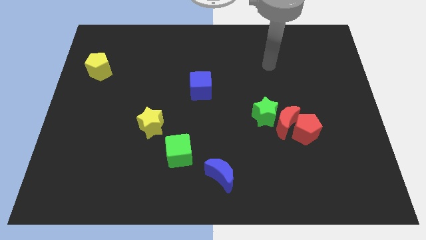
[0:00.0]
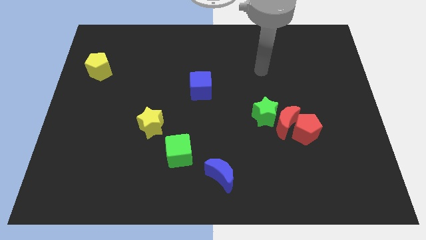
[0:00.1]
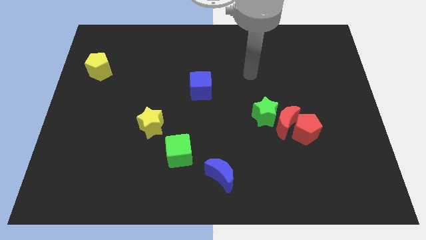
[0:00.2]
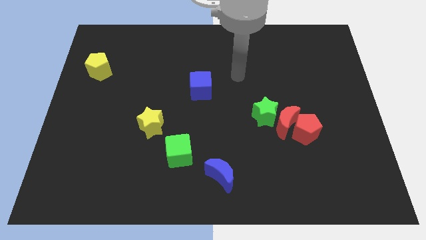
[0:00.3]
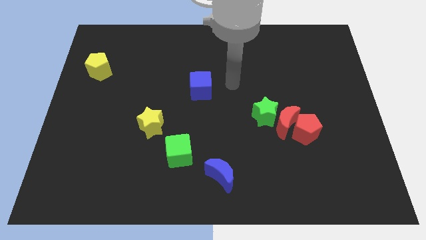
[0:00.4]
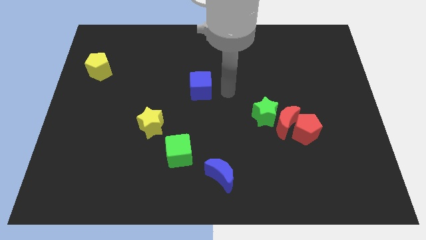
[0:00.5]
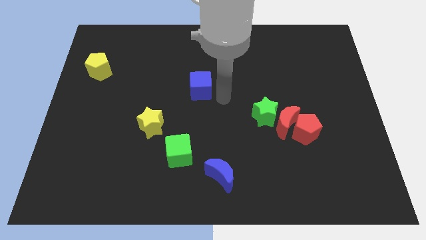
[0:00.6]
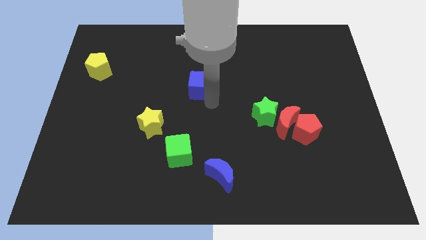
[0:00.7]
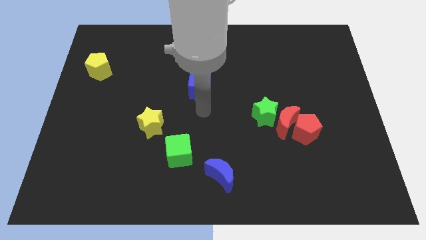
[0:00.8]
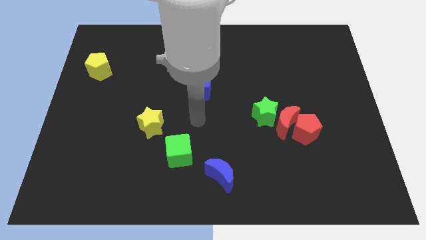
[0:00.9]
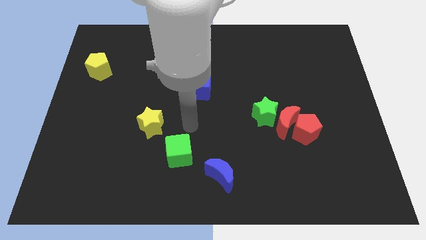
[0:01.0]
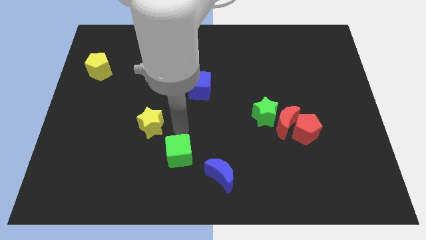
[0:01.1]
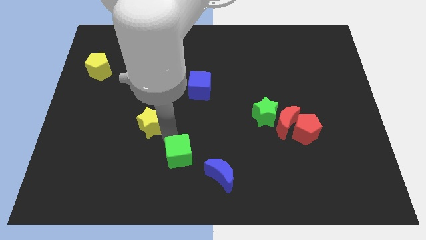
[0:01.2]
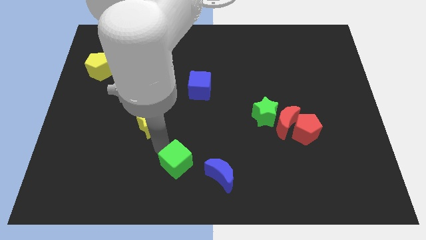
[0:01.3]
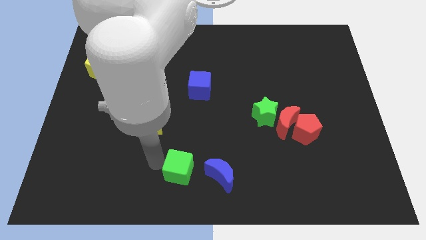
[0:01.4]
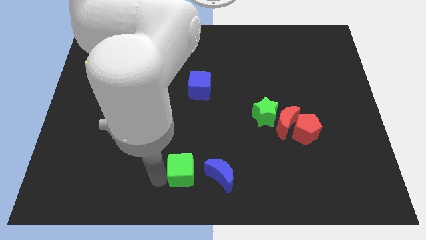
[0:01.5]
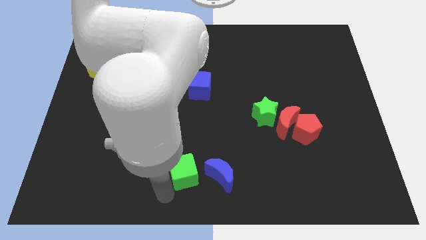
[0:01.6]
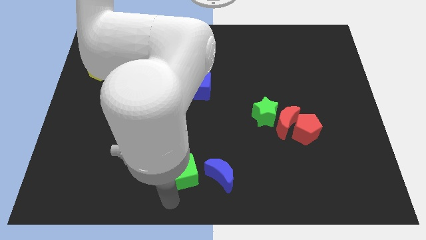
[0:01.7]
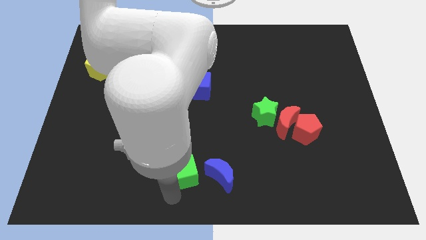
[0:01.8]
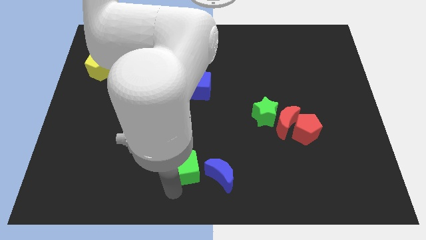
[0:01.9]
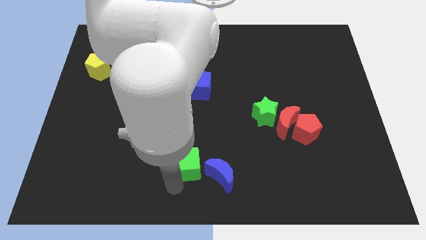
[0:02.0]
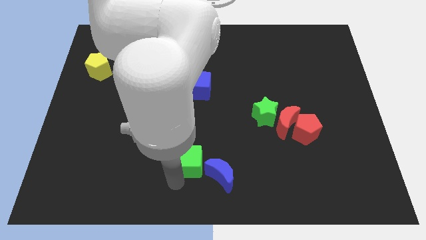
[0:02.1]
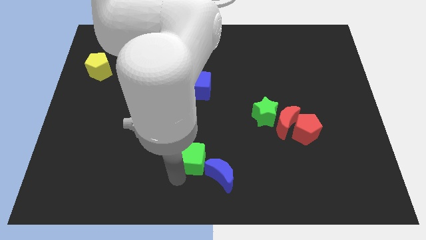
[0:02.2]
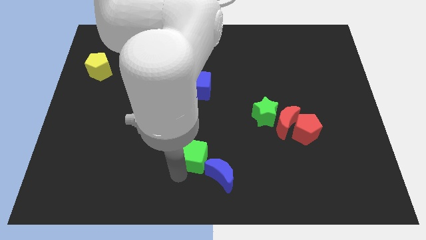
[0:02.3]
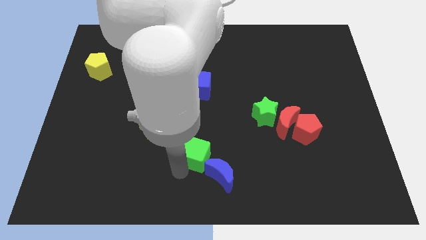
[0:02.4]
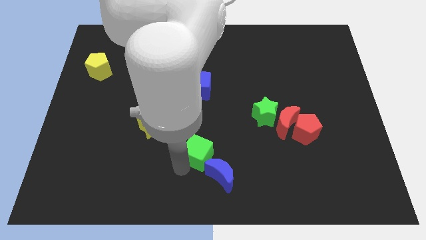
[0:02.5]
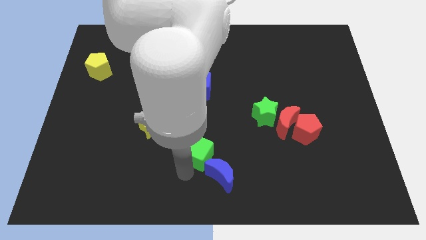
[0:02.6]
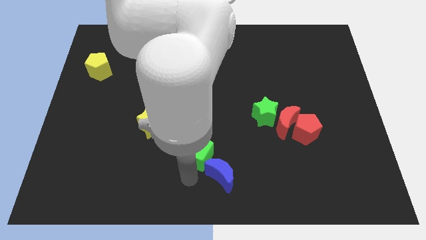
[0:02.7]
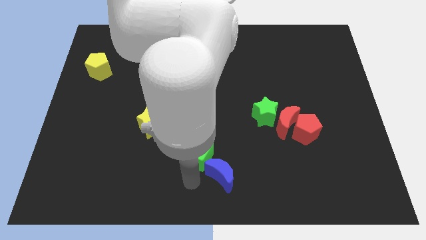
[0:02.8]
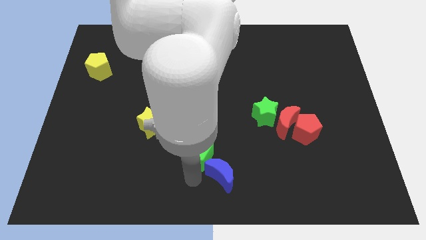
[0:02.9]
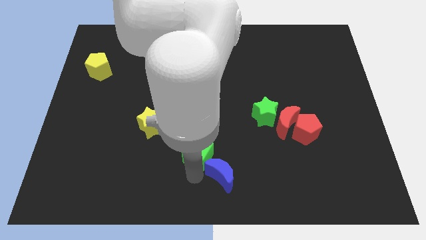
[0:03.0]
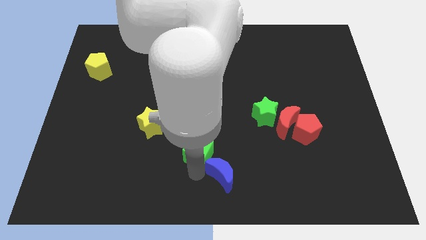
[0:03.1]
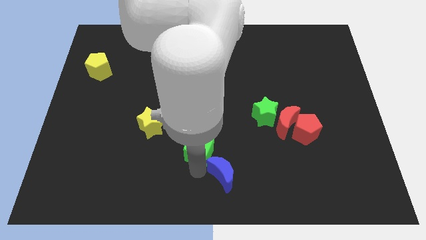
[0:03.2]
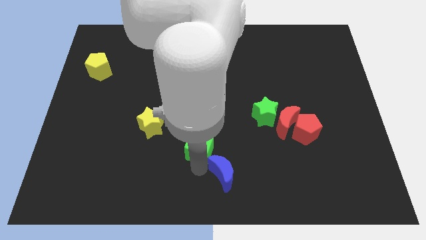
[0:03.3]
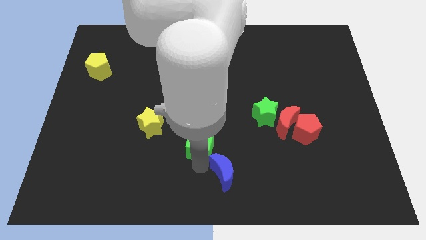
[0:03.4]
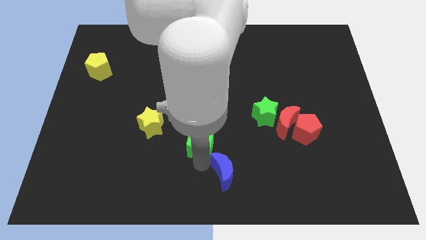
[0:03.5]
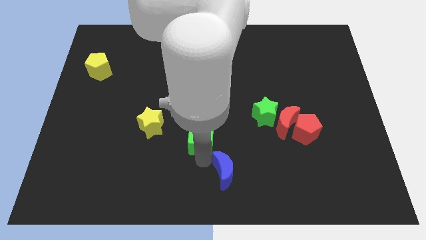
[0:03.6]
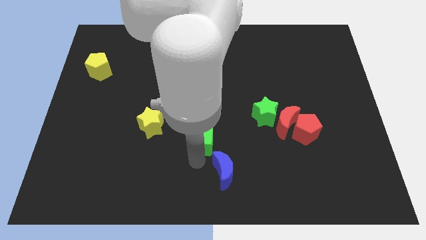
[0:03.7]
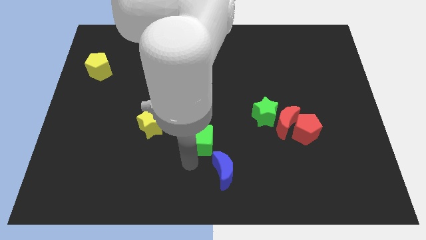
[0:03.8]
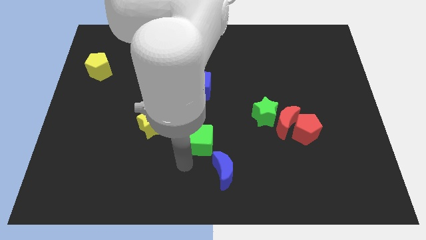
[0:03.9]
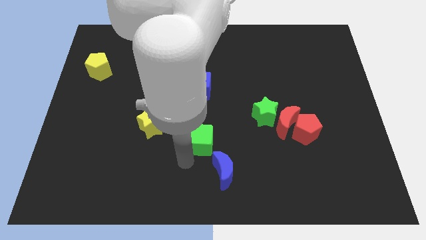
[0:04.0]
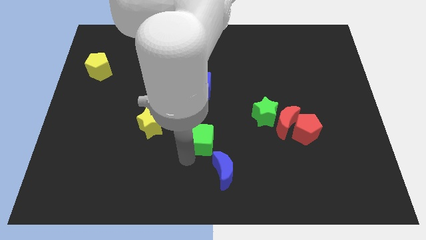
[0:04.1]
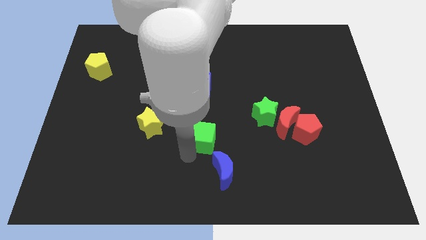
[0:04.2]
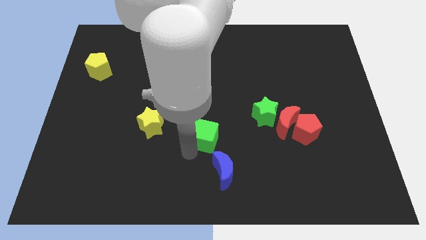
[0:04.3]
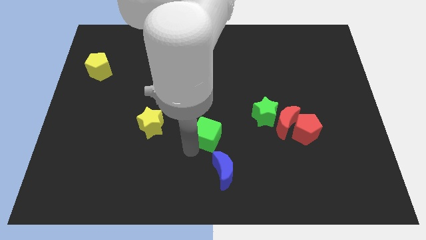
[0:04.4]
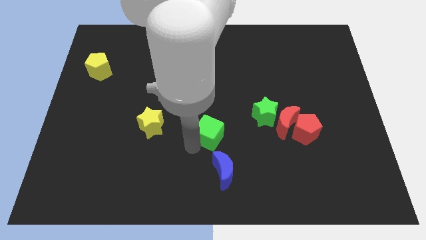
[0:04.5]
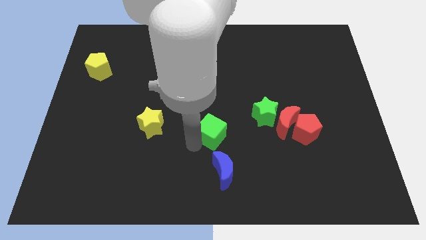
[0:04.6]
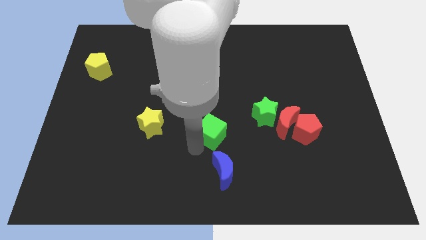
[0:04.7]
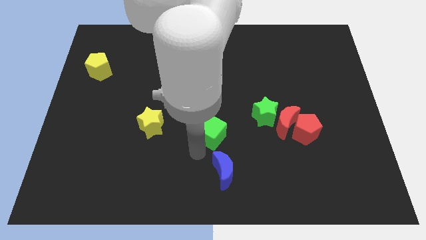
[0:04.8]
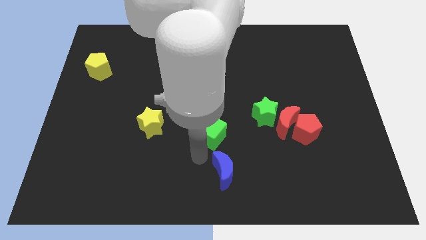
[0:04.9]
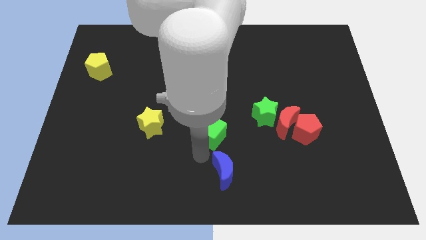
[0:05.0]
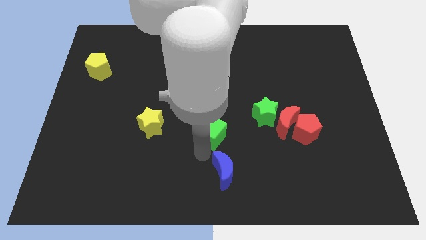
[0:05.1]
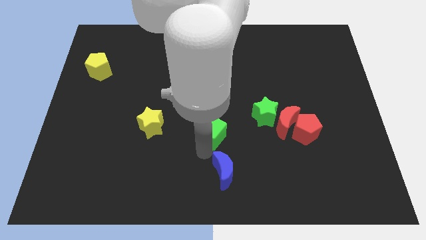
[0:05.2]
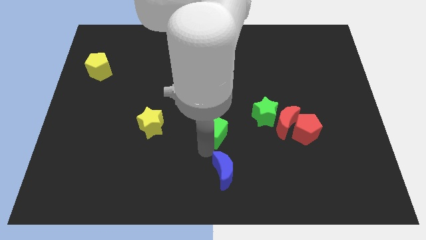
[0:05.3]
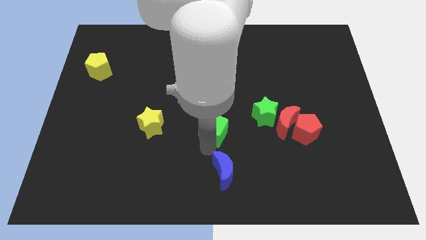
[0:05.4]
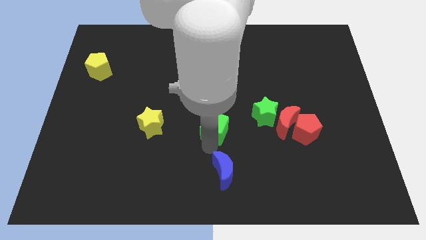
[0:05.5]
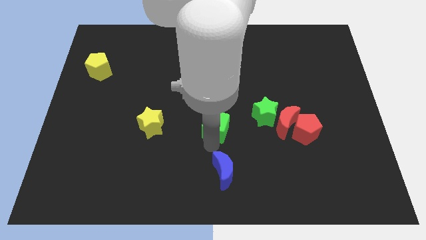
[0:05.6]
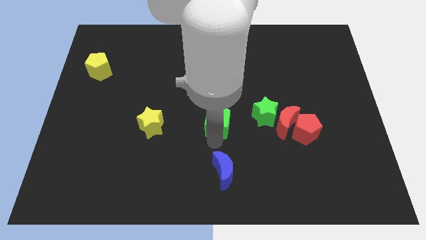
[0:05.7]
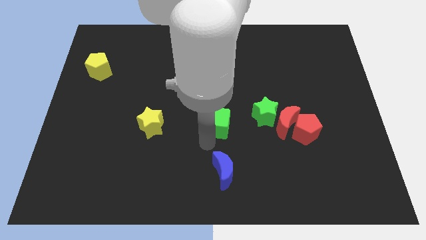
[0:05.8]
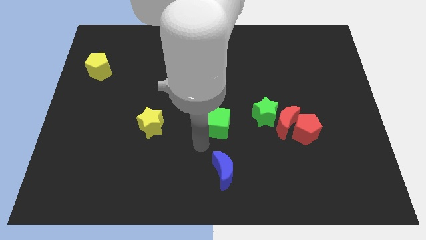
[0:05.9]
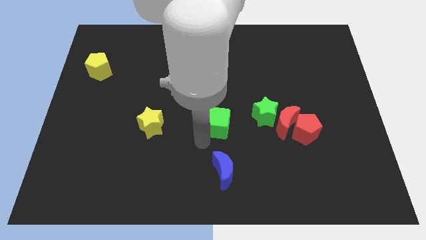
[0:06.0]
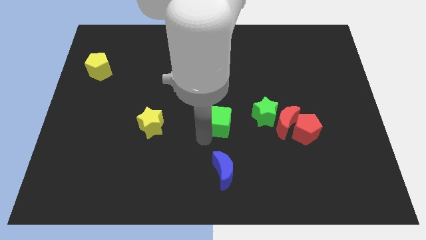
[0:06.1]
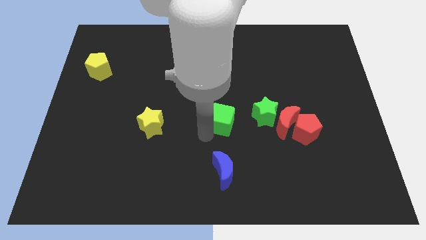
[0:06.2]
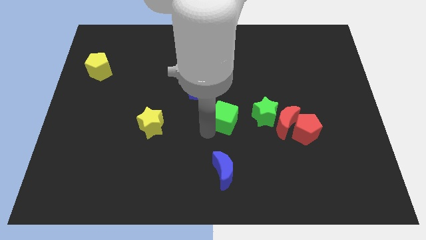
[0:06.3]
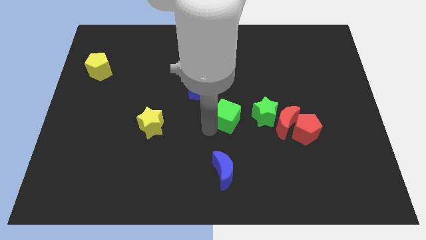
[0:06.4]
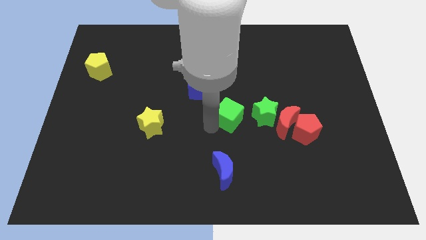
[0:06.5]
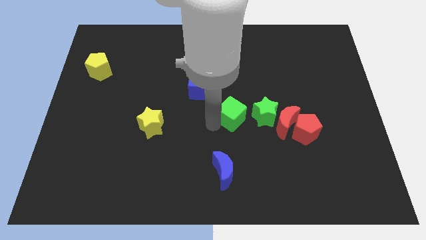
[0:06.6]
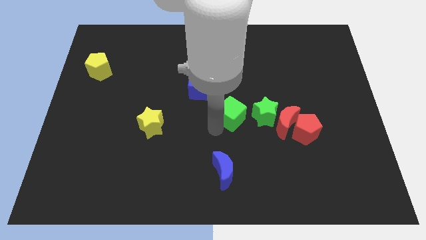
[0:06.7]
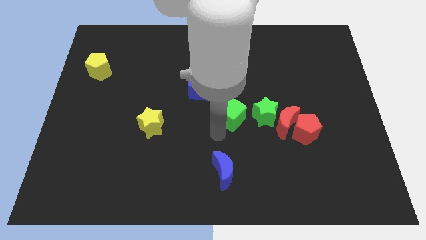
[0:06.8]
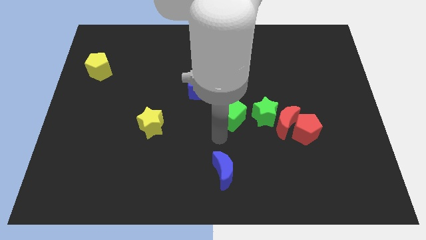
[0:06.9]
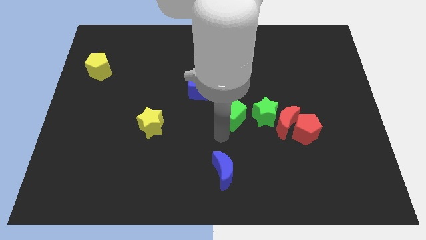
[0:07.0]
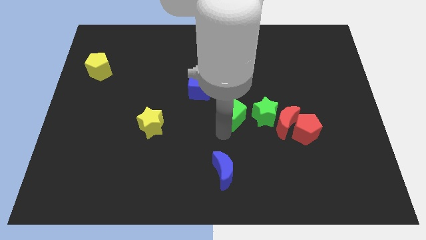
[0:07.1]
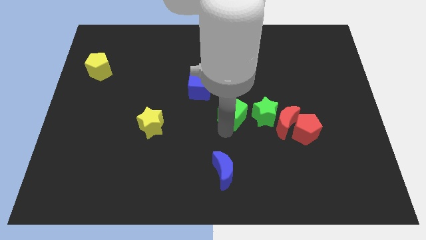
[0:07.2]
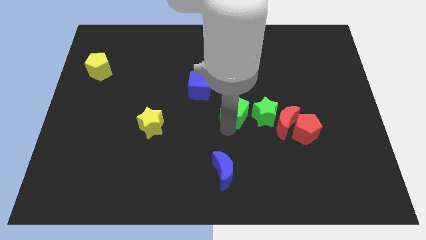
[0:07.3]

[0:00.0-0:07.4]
slide the green cube to the top left side of the green star
